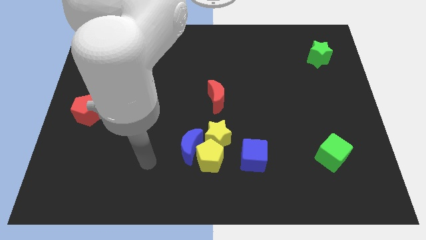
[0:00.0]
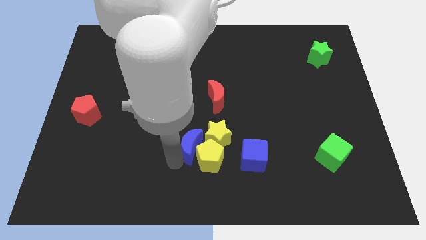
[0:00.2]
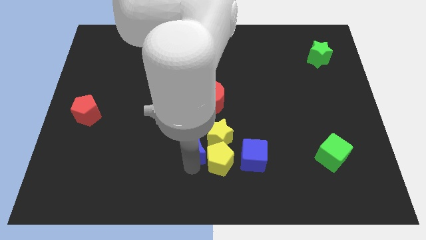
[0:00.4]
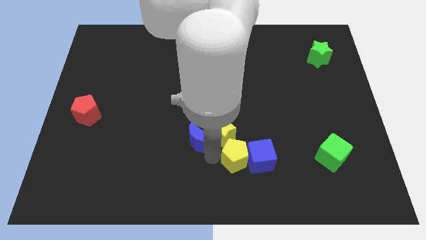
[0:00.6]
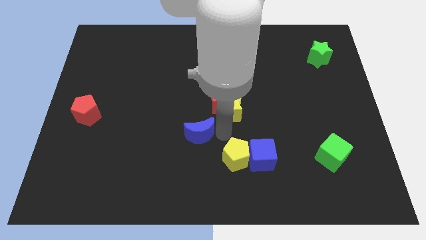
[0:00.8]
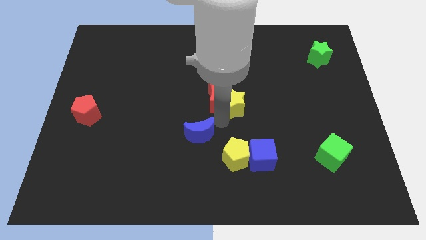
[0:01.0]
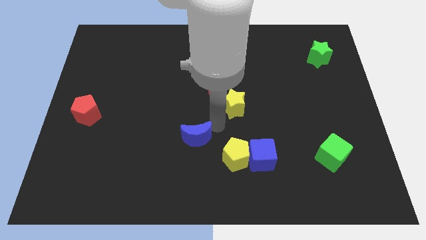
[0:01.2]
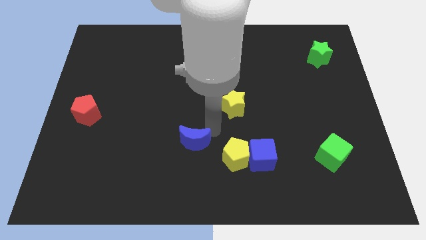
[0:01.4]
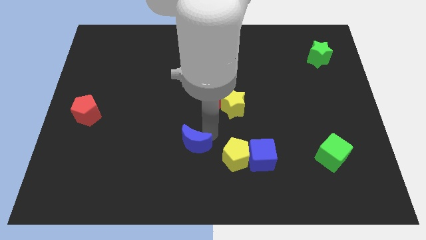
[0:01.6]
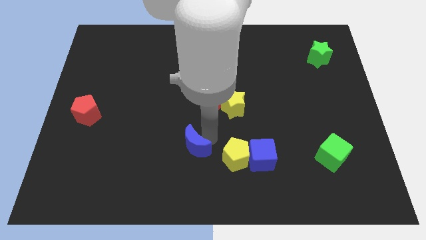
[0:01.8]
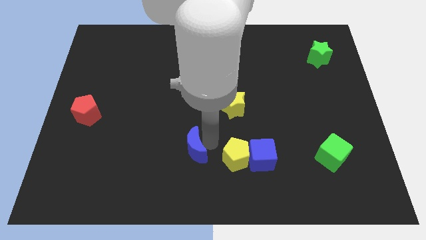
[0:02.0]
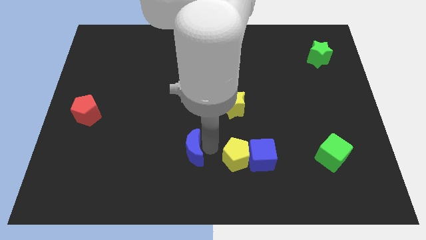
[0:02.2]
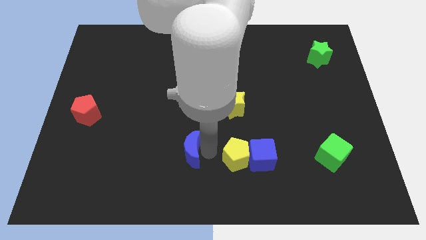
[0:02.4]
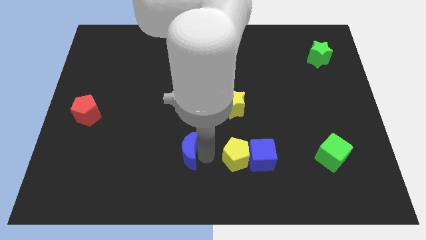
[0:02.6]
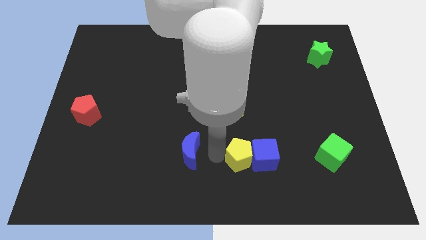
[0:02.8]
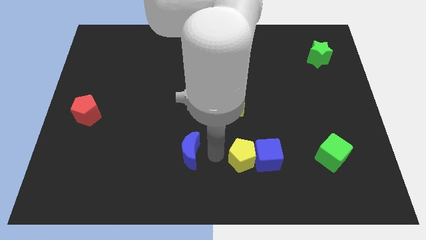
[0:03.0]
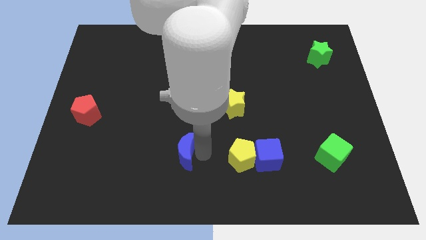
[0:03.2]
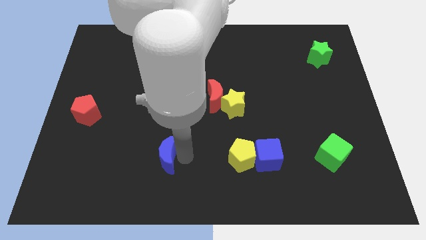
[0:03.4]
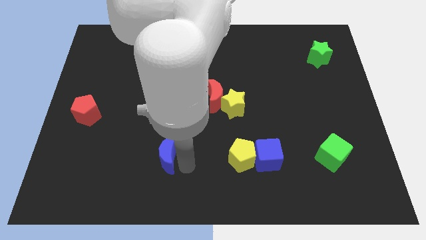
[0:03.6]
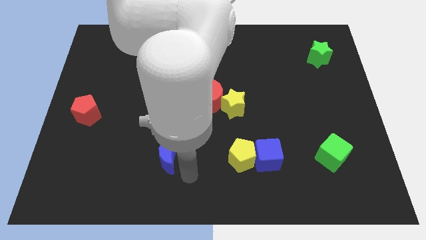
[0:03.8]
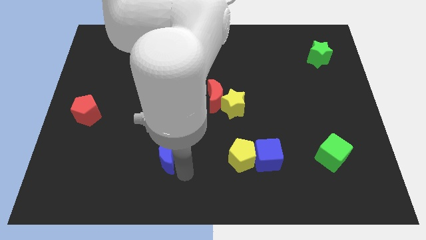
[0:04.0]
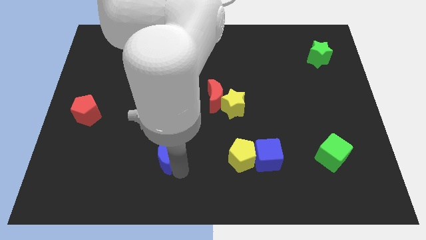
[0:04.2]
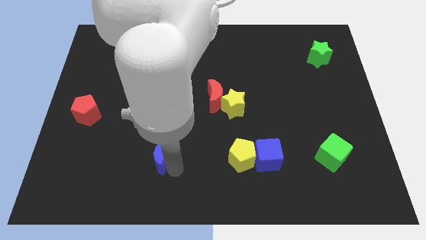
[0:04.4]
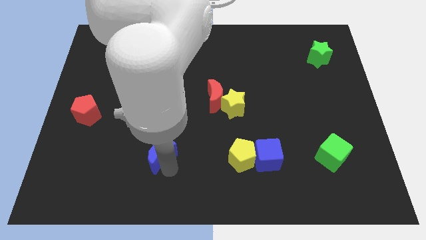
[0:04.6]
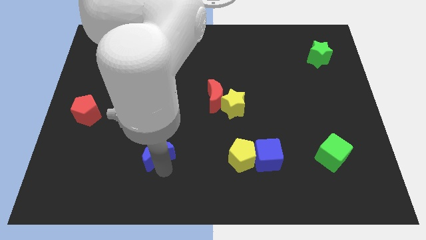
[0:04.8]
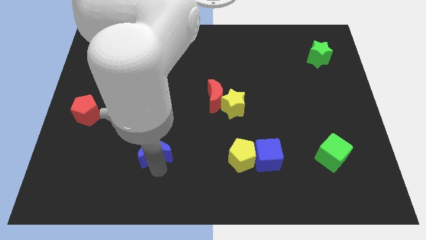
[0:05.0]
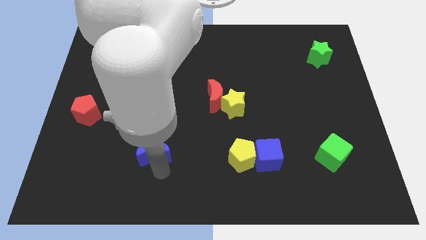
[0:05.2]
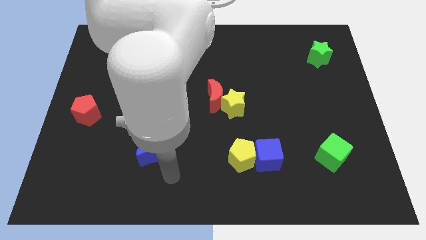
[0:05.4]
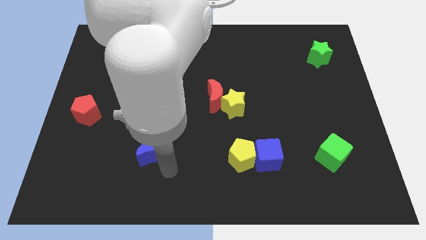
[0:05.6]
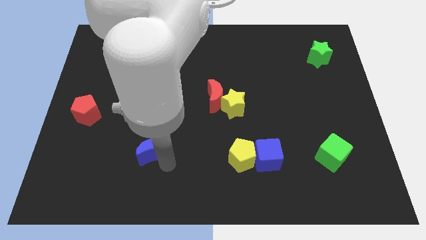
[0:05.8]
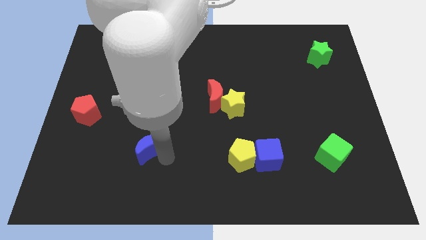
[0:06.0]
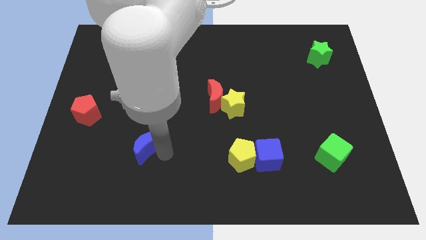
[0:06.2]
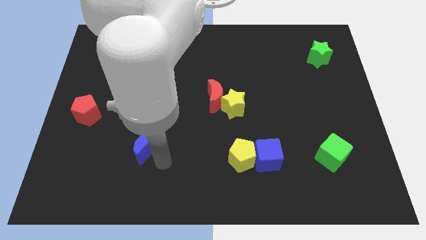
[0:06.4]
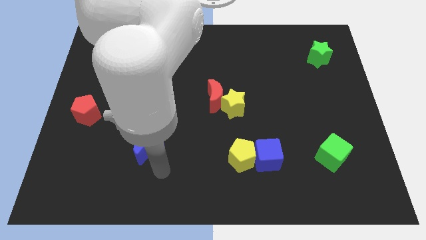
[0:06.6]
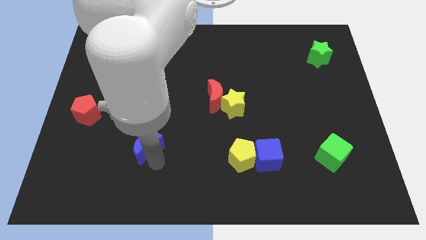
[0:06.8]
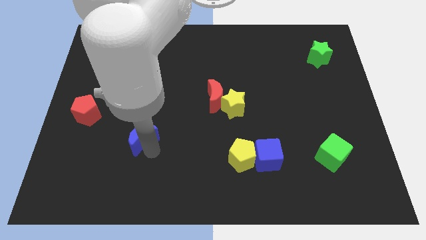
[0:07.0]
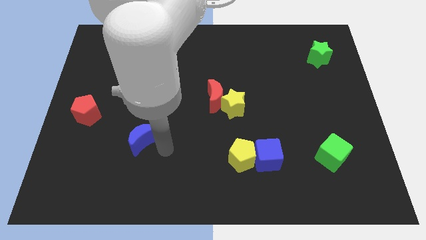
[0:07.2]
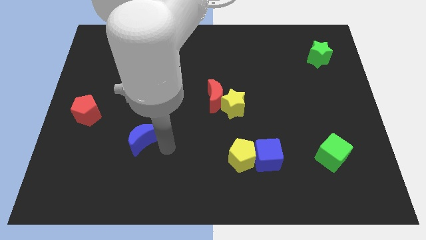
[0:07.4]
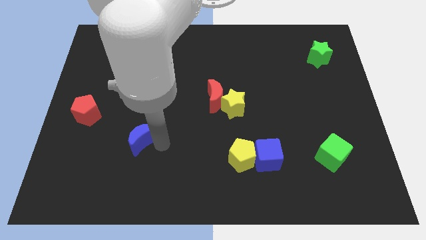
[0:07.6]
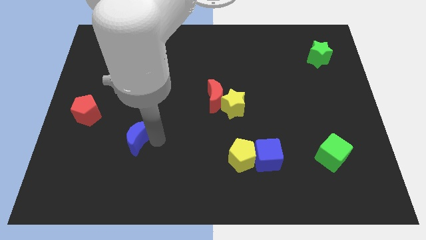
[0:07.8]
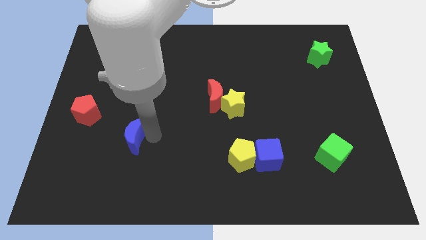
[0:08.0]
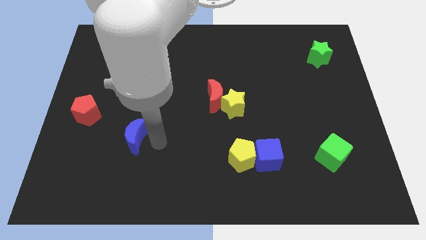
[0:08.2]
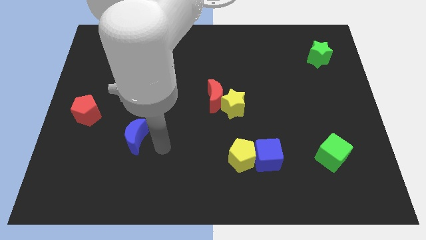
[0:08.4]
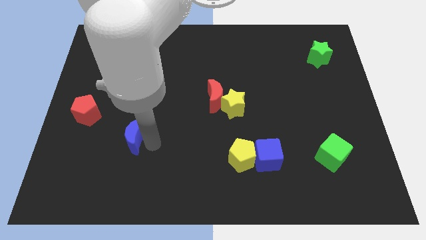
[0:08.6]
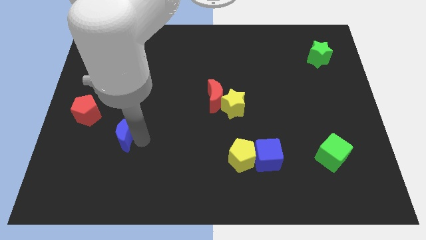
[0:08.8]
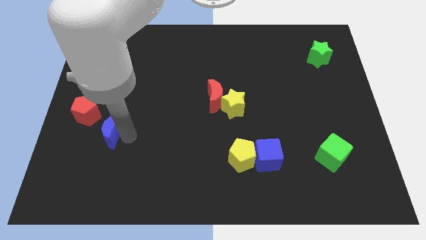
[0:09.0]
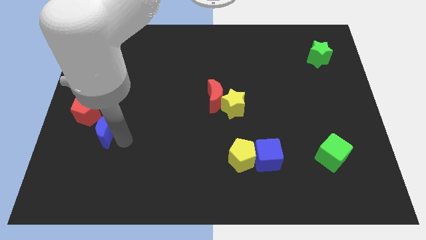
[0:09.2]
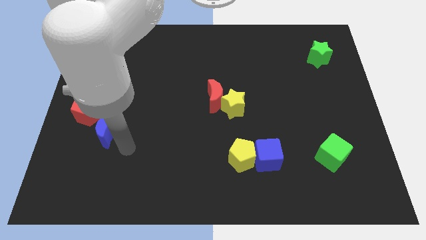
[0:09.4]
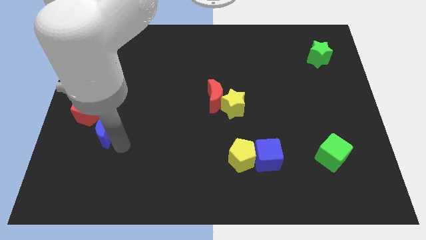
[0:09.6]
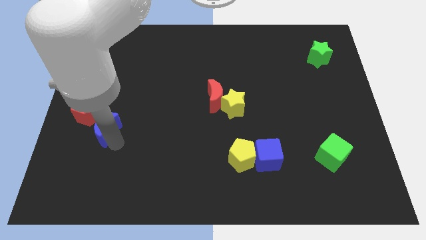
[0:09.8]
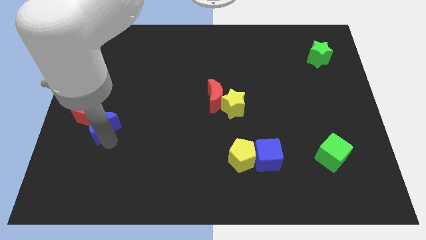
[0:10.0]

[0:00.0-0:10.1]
put the blue moon close to the red pentagon

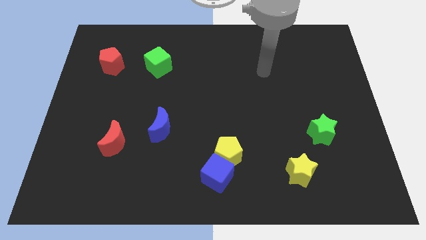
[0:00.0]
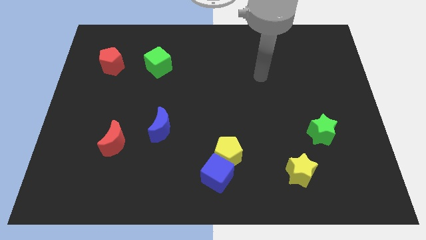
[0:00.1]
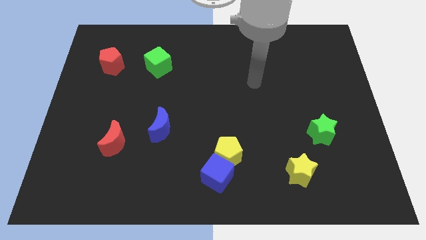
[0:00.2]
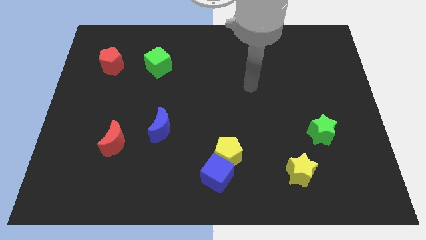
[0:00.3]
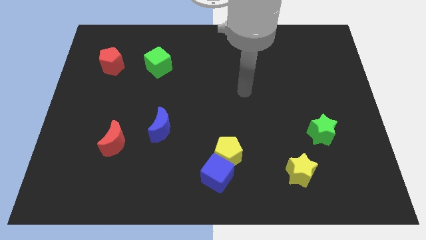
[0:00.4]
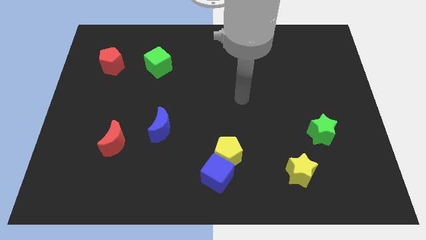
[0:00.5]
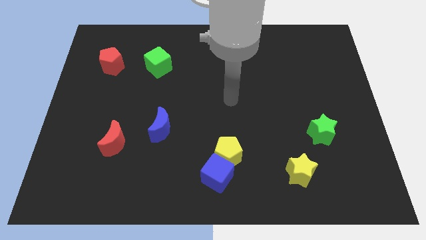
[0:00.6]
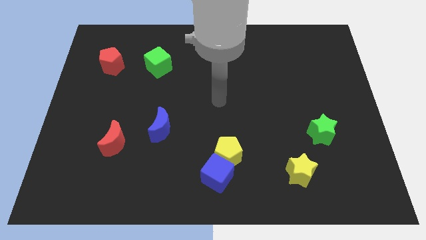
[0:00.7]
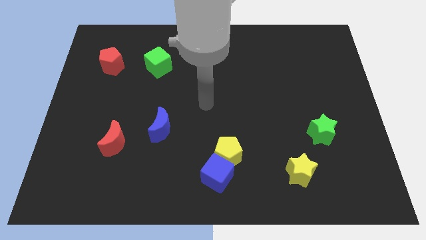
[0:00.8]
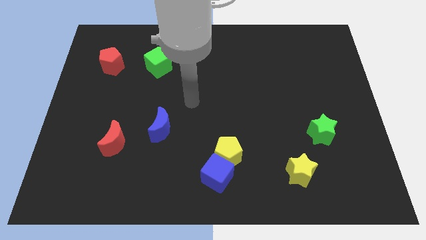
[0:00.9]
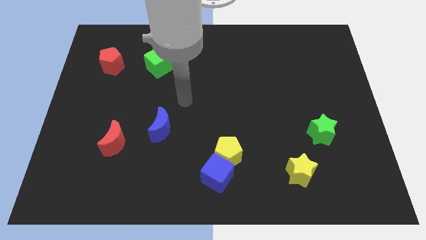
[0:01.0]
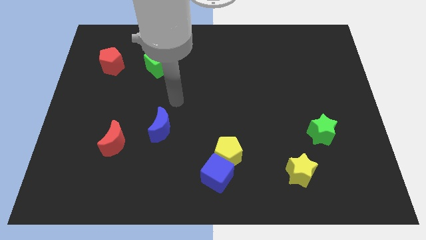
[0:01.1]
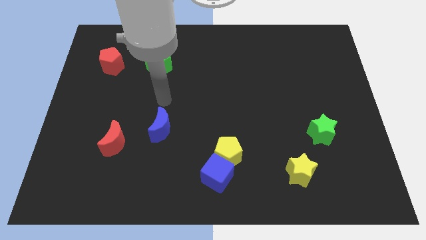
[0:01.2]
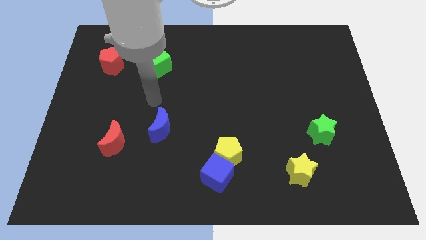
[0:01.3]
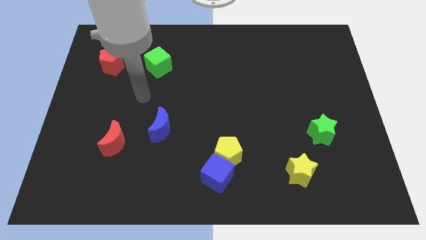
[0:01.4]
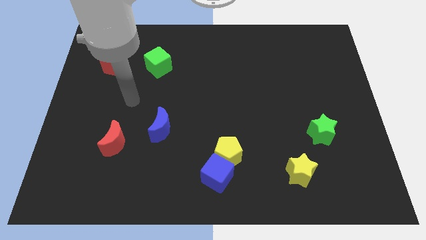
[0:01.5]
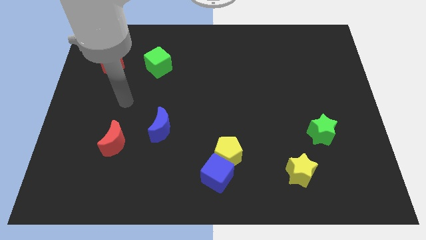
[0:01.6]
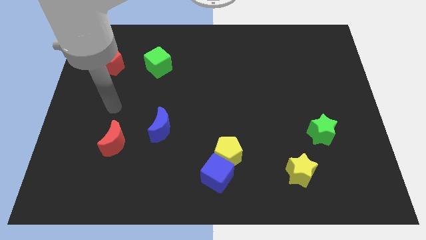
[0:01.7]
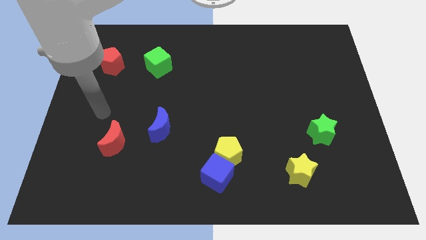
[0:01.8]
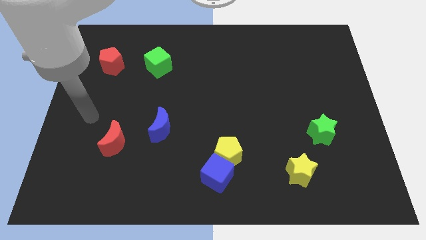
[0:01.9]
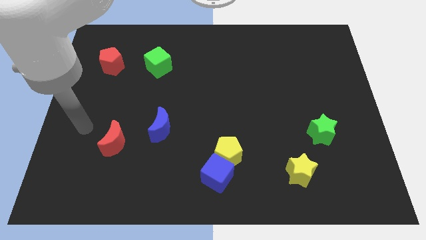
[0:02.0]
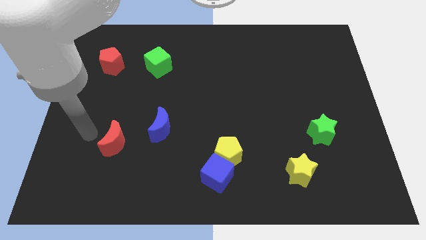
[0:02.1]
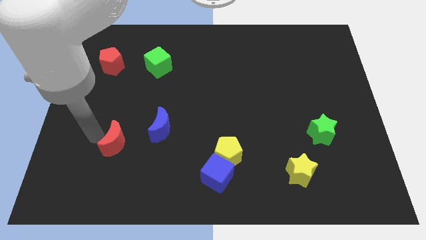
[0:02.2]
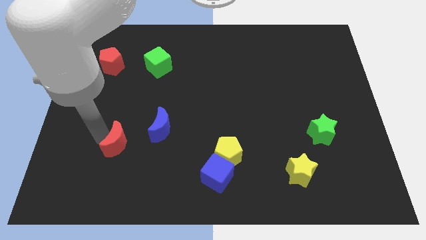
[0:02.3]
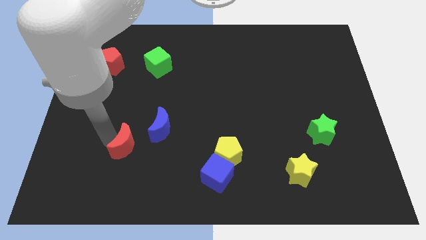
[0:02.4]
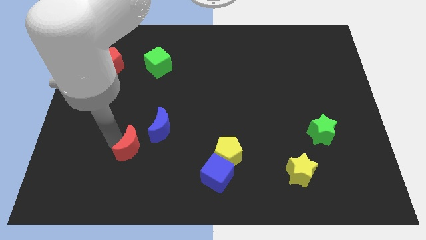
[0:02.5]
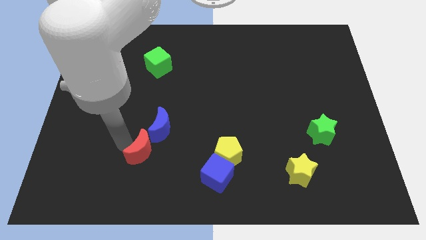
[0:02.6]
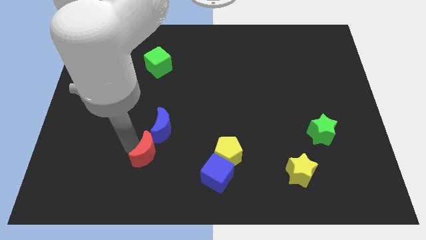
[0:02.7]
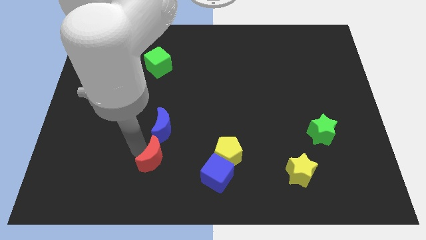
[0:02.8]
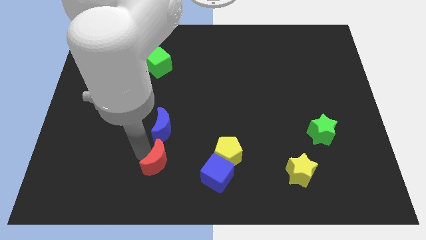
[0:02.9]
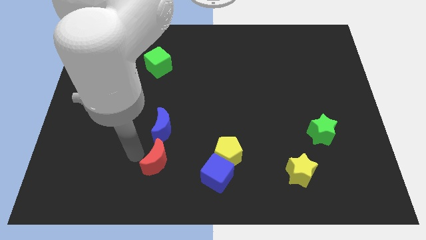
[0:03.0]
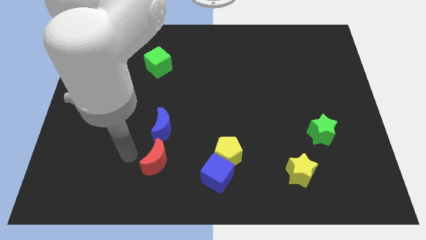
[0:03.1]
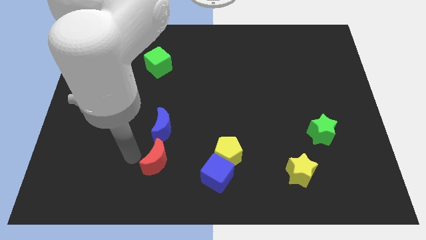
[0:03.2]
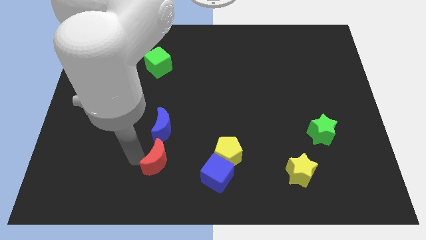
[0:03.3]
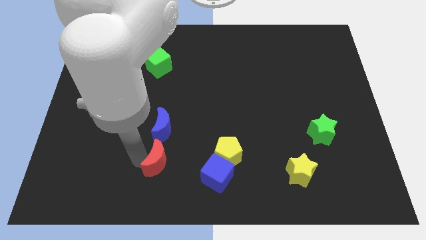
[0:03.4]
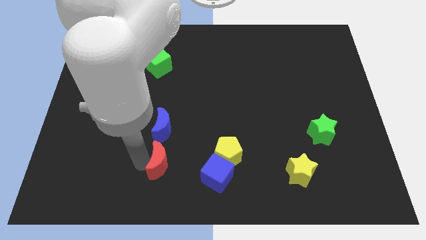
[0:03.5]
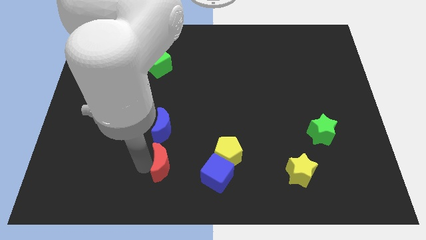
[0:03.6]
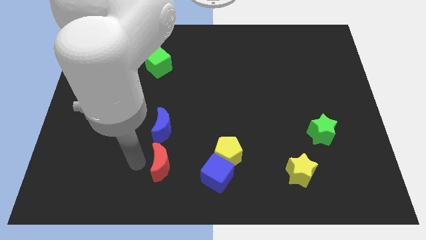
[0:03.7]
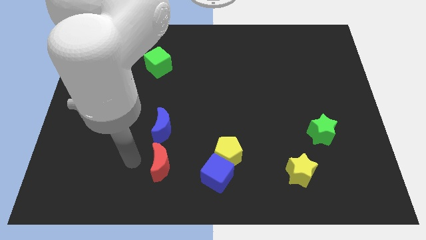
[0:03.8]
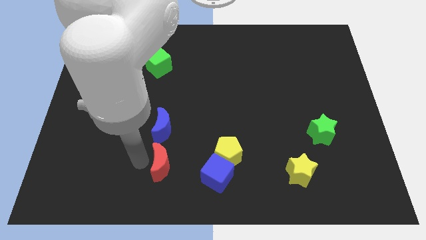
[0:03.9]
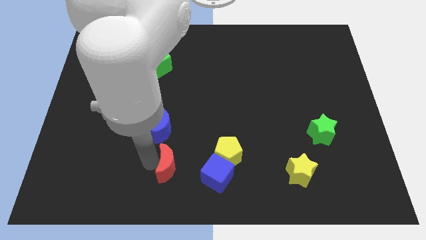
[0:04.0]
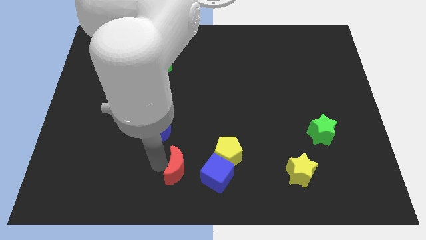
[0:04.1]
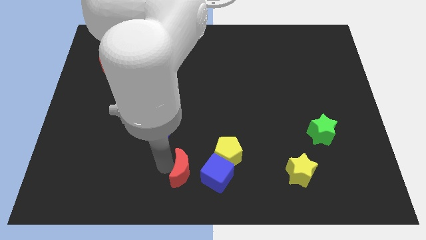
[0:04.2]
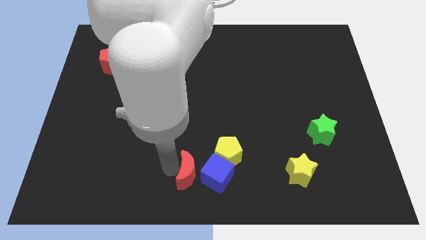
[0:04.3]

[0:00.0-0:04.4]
put the red moon close to the blue cube
